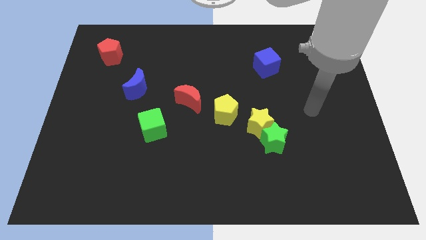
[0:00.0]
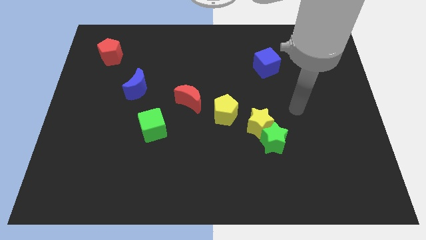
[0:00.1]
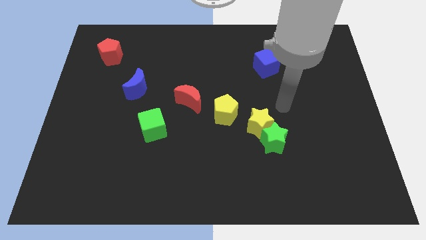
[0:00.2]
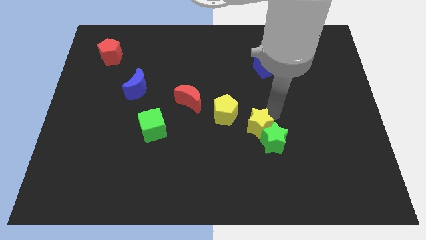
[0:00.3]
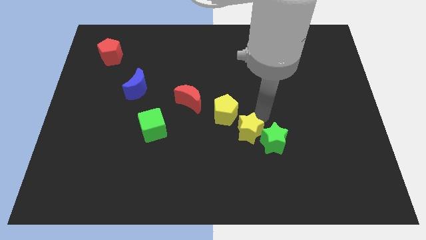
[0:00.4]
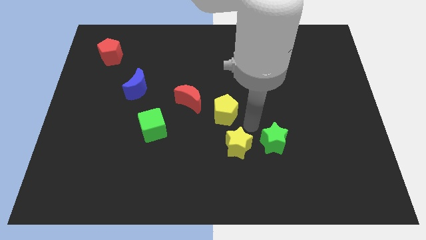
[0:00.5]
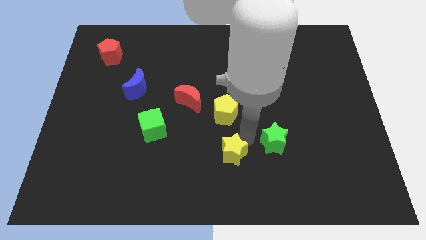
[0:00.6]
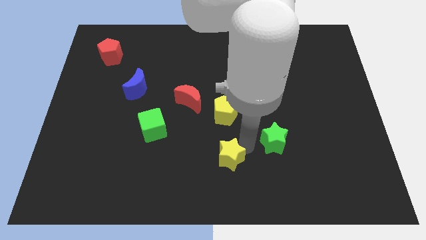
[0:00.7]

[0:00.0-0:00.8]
move the green star away from the yellow star

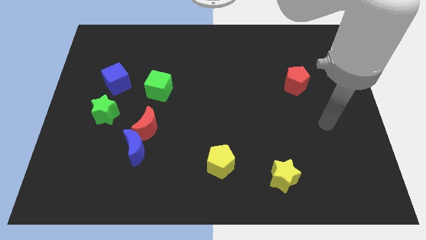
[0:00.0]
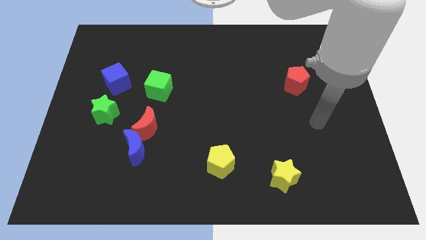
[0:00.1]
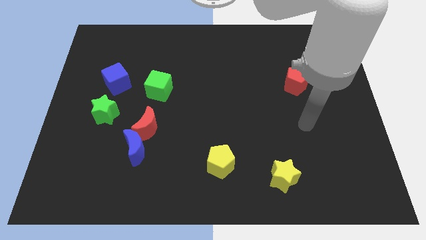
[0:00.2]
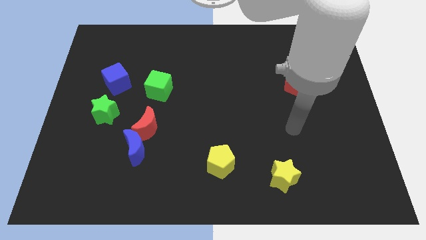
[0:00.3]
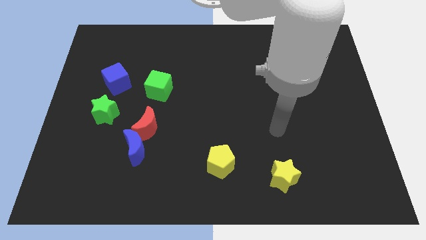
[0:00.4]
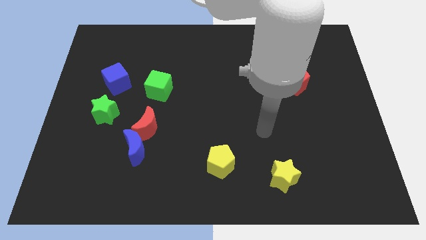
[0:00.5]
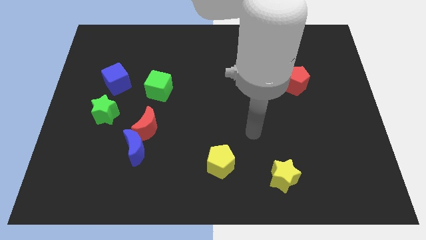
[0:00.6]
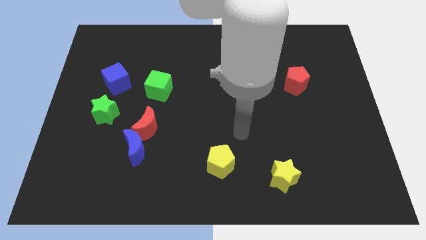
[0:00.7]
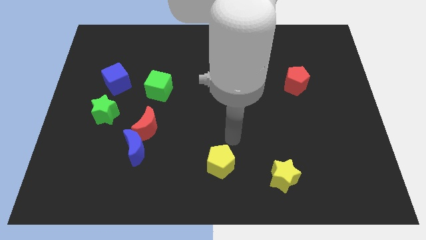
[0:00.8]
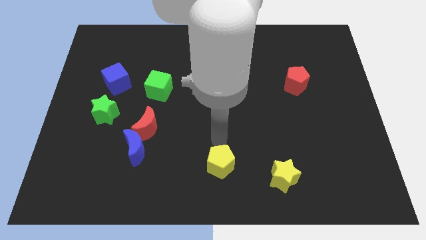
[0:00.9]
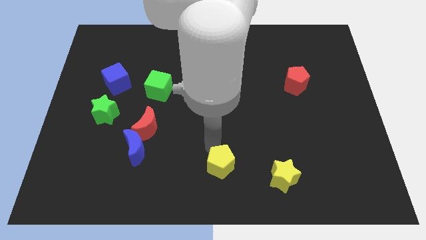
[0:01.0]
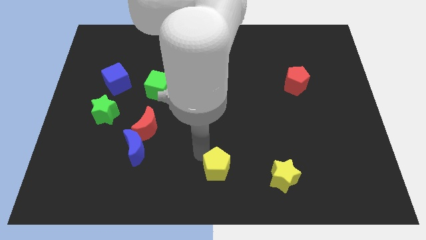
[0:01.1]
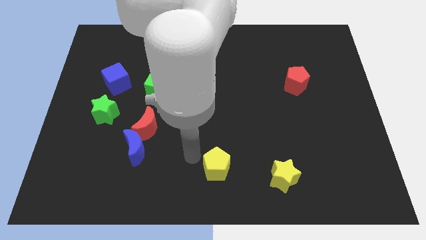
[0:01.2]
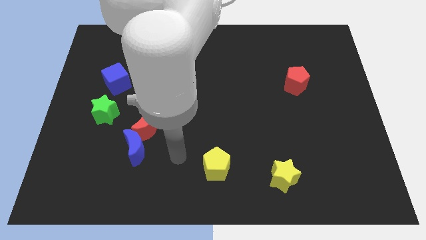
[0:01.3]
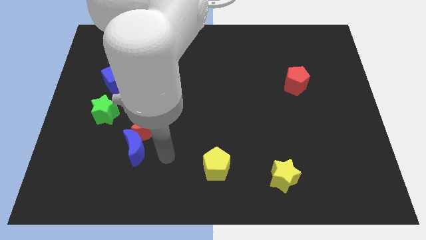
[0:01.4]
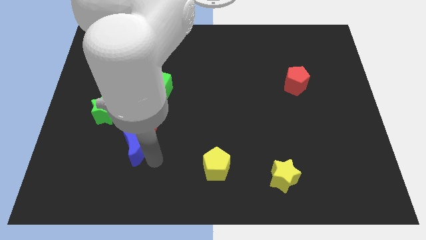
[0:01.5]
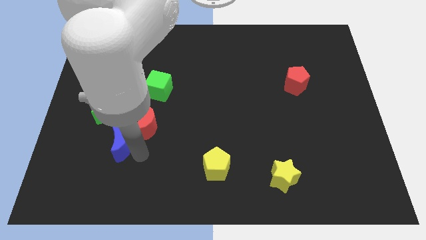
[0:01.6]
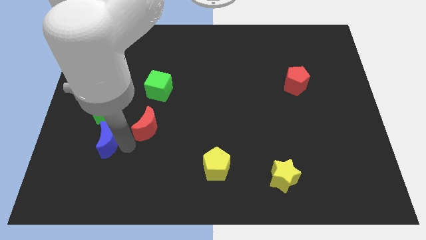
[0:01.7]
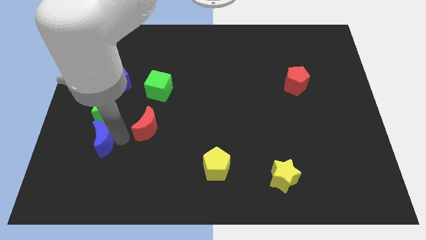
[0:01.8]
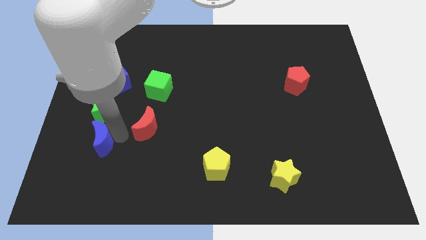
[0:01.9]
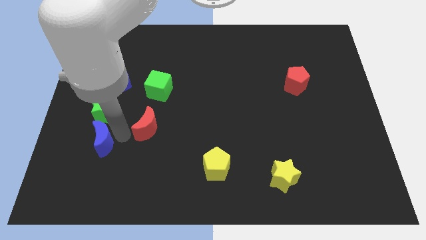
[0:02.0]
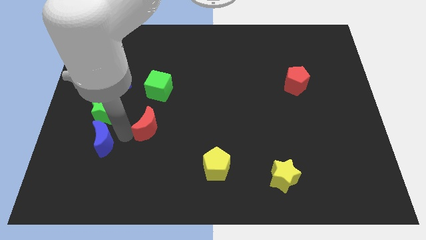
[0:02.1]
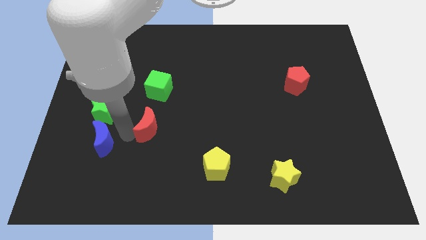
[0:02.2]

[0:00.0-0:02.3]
pull the red moon apart from the blue moon

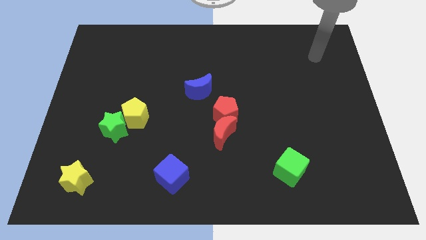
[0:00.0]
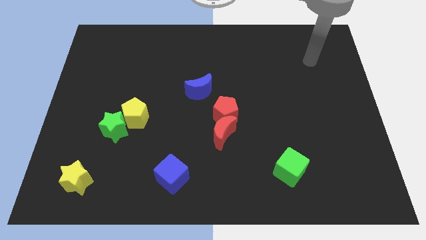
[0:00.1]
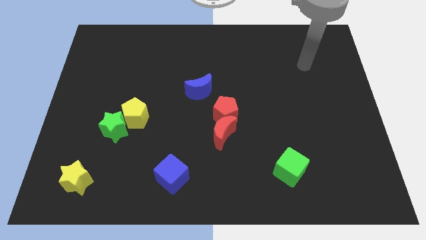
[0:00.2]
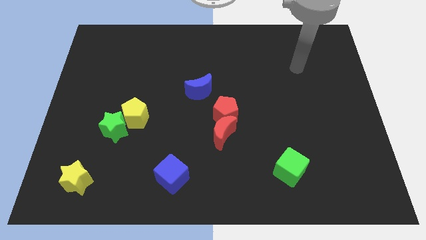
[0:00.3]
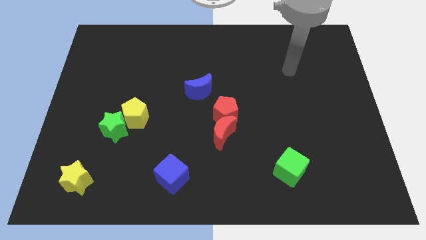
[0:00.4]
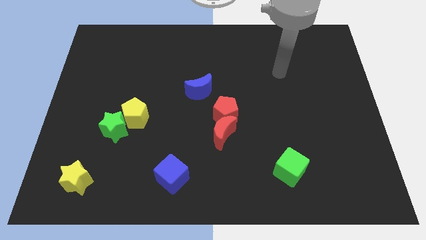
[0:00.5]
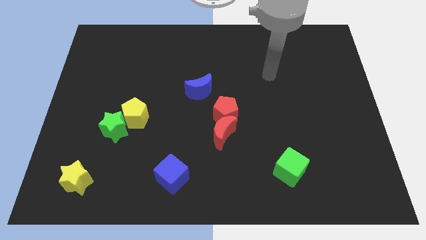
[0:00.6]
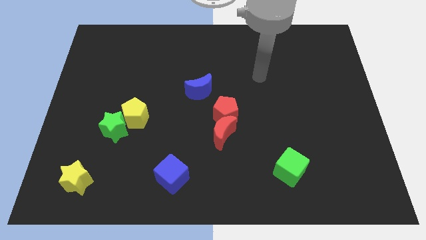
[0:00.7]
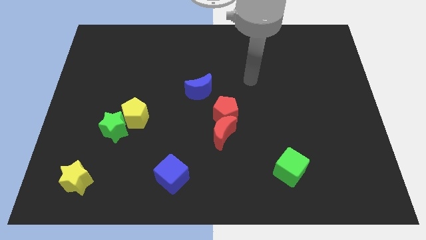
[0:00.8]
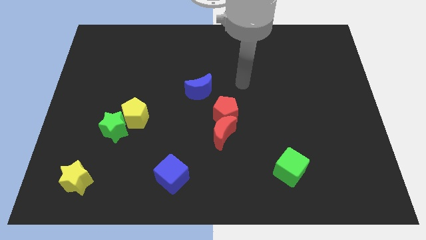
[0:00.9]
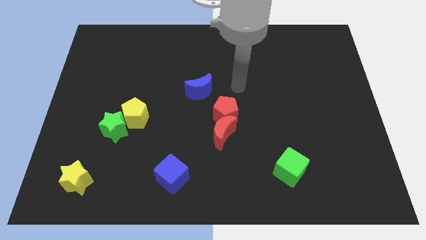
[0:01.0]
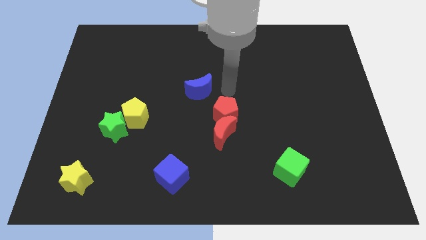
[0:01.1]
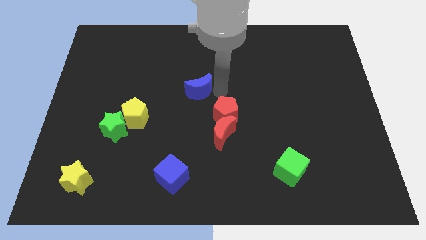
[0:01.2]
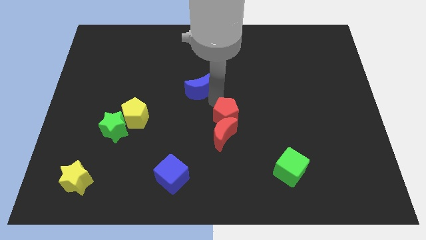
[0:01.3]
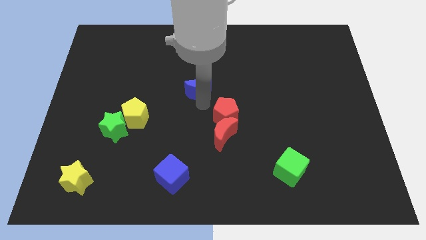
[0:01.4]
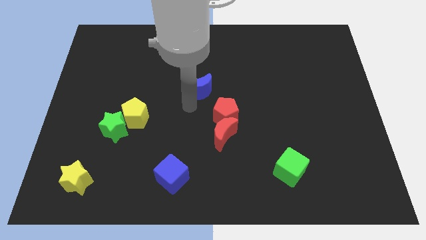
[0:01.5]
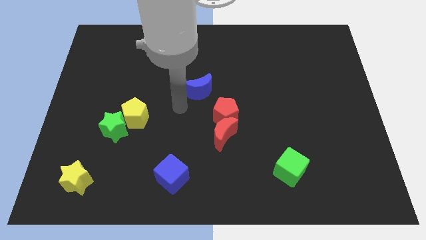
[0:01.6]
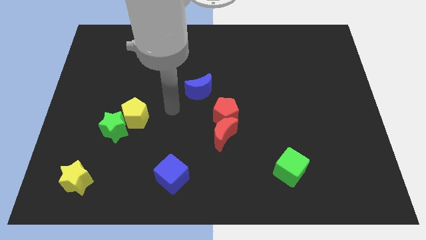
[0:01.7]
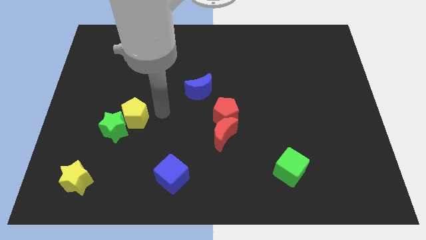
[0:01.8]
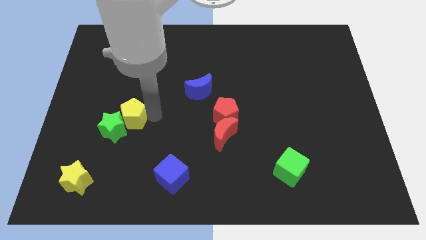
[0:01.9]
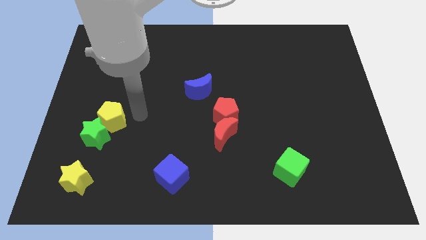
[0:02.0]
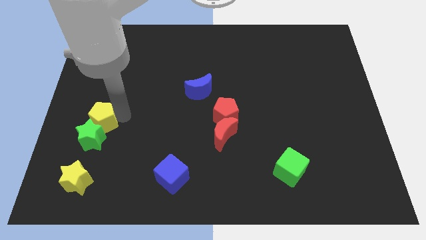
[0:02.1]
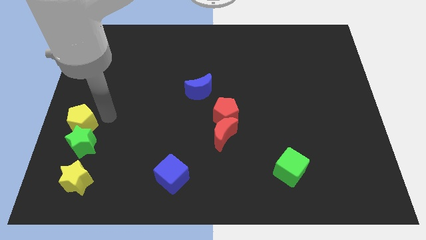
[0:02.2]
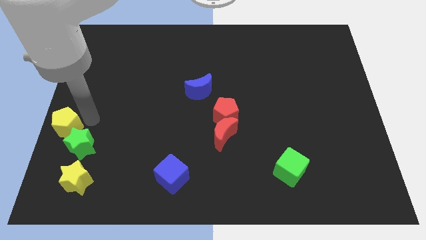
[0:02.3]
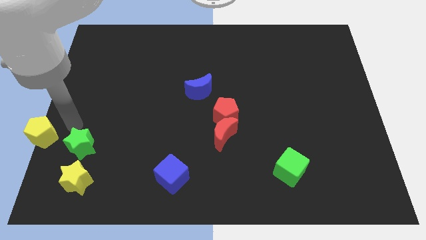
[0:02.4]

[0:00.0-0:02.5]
separate the green star from the yellow pentagon

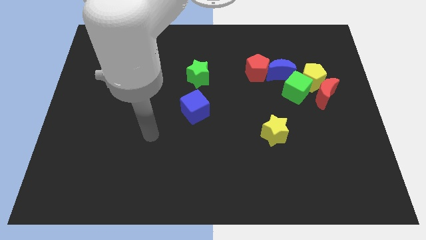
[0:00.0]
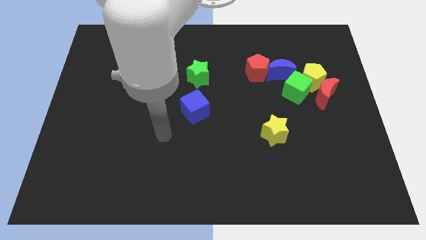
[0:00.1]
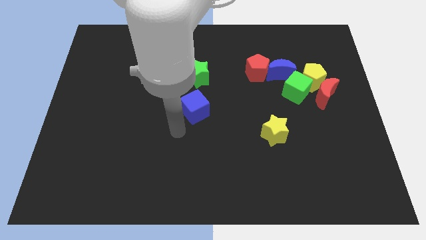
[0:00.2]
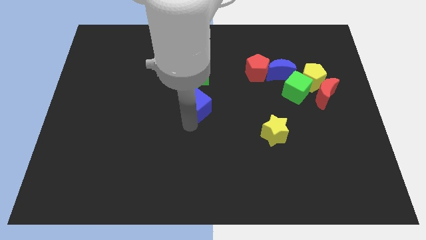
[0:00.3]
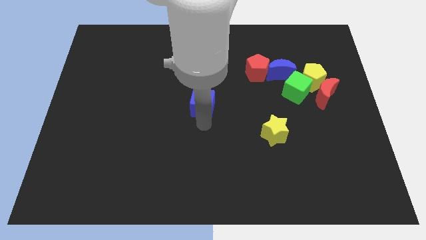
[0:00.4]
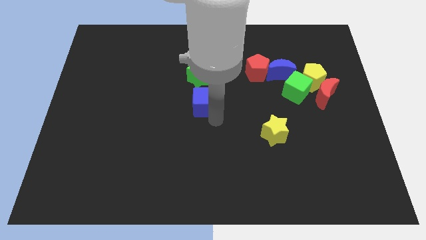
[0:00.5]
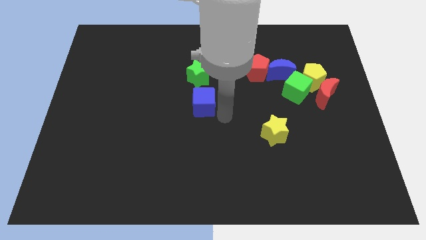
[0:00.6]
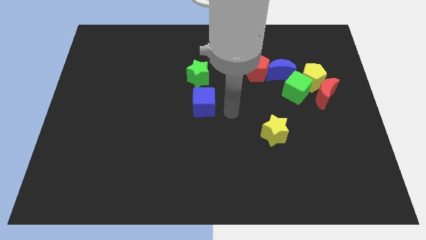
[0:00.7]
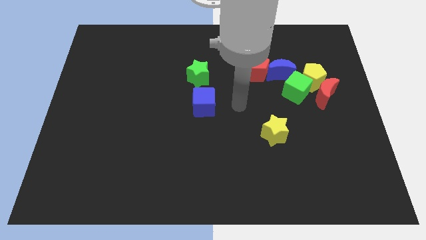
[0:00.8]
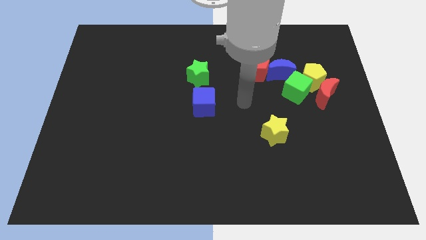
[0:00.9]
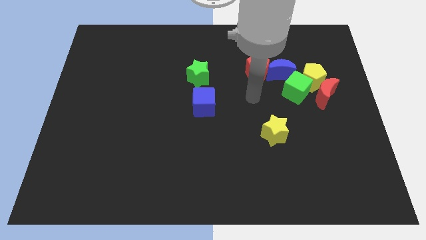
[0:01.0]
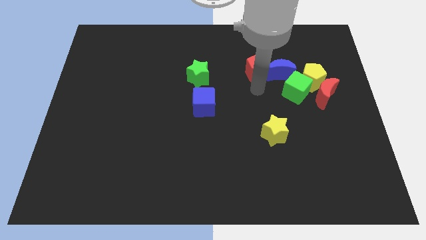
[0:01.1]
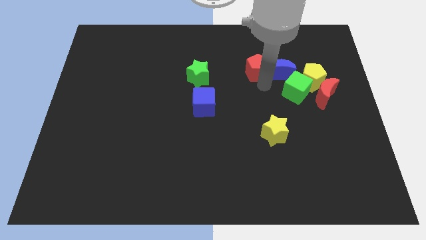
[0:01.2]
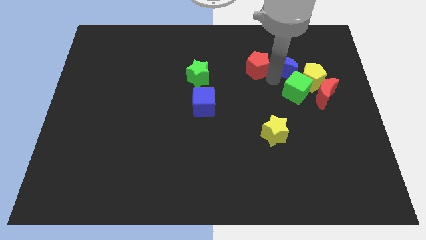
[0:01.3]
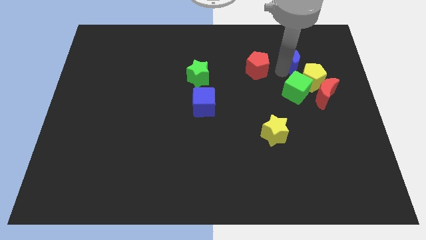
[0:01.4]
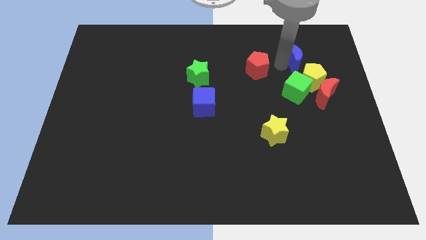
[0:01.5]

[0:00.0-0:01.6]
pull the red pentagon apart from the blue moon

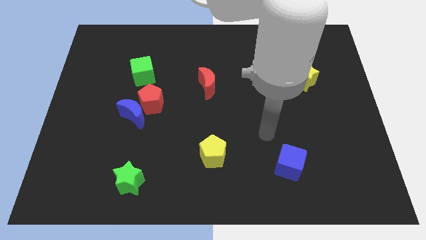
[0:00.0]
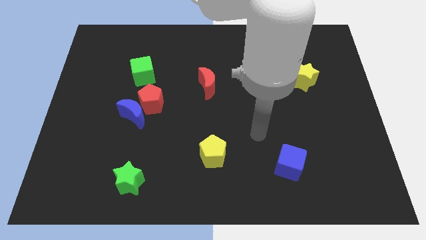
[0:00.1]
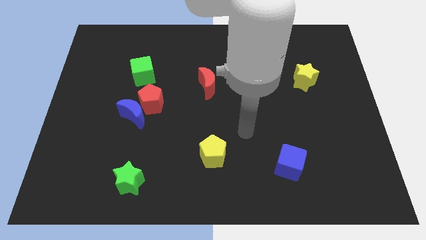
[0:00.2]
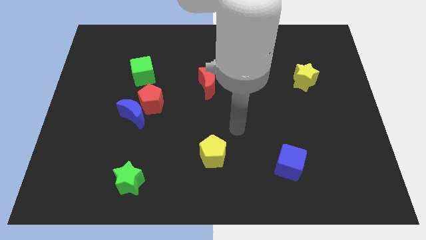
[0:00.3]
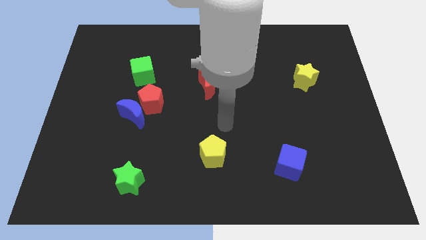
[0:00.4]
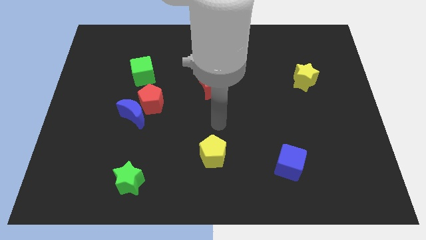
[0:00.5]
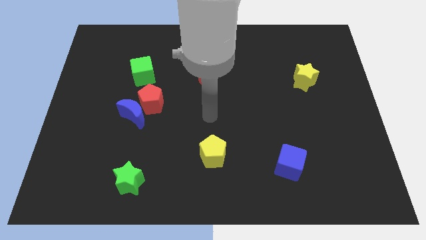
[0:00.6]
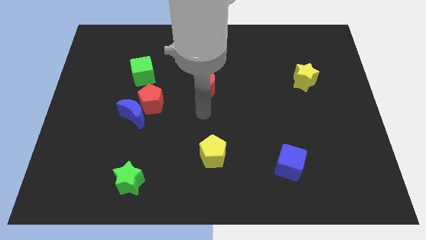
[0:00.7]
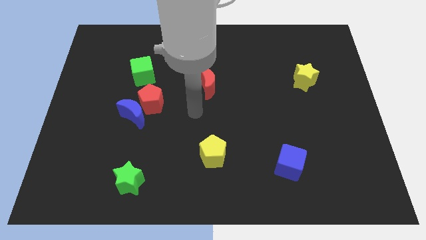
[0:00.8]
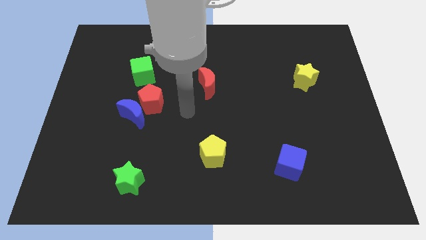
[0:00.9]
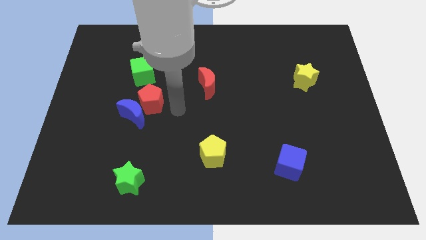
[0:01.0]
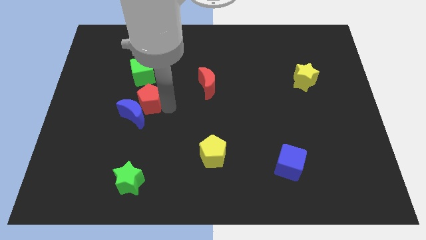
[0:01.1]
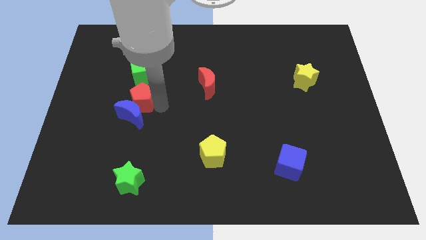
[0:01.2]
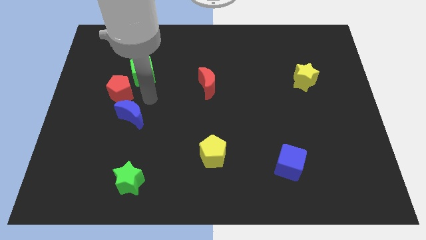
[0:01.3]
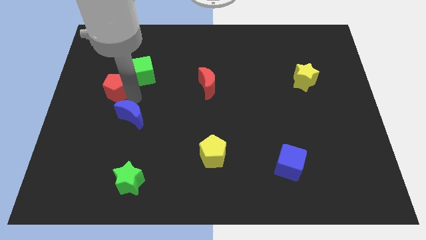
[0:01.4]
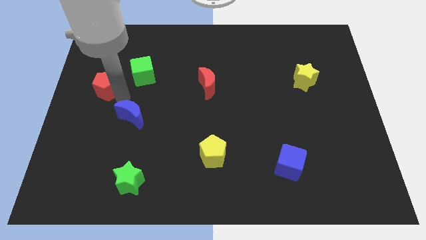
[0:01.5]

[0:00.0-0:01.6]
pull the blue moon apart from the red pentagon

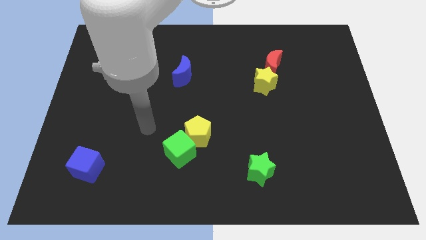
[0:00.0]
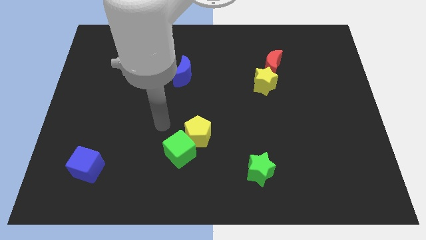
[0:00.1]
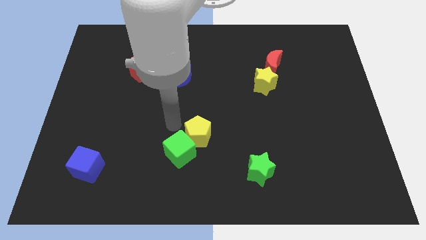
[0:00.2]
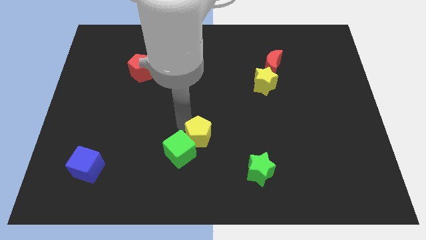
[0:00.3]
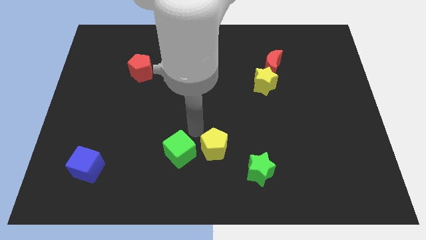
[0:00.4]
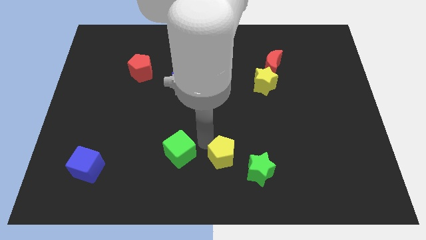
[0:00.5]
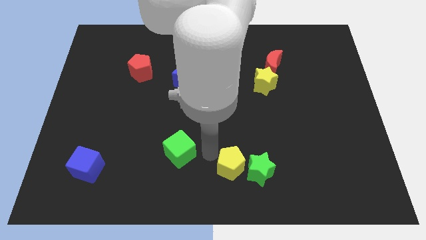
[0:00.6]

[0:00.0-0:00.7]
separate the green cube from the yellow pentagon
